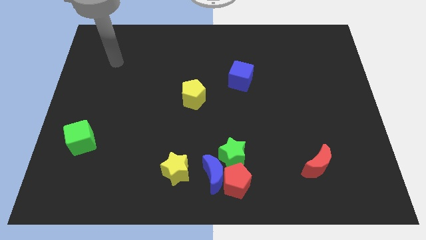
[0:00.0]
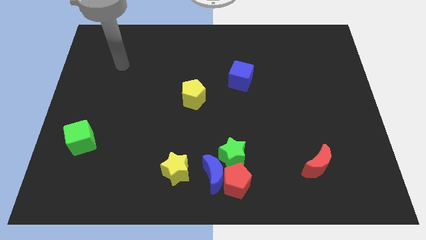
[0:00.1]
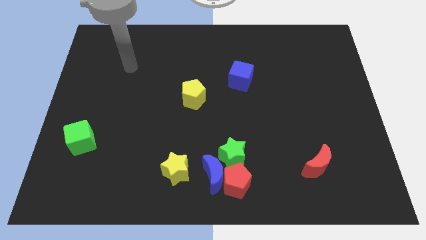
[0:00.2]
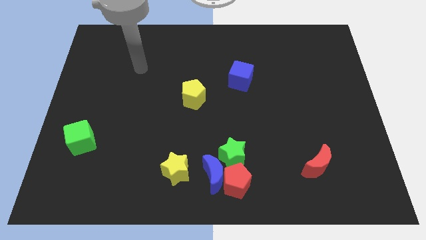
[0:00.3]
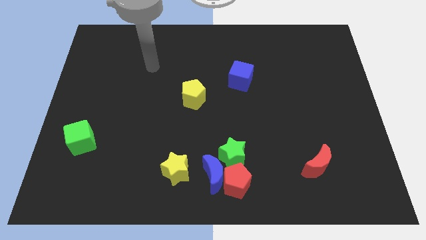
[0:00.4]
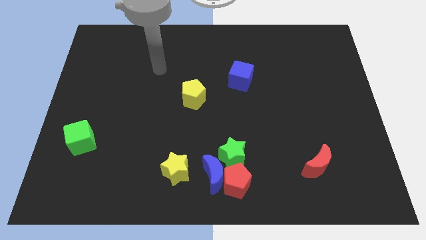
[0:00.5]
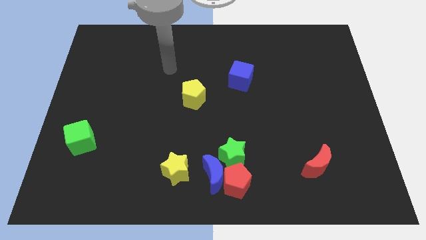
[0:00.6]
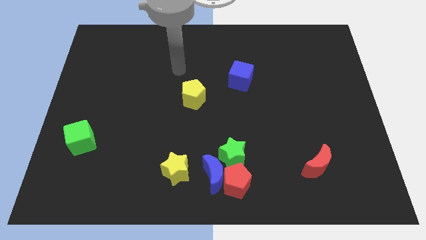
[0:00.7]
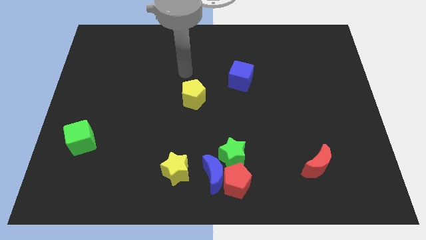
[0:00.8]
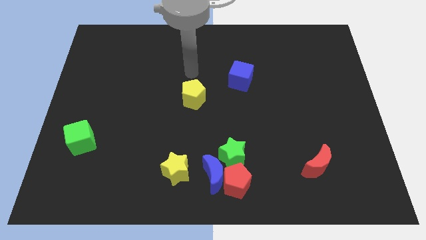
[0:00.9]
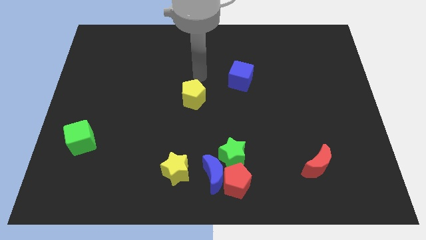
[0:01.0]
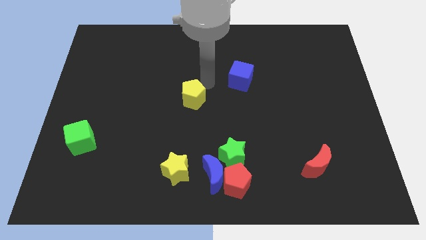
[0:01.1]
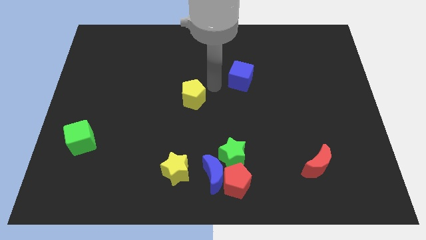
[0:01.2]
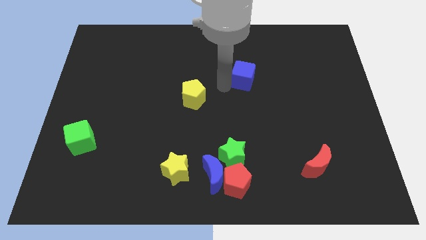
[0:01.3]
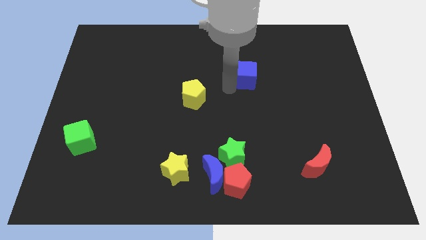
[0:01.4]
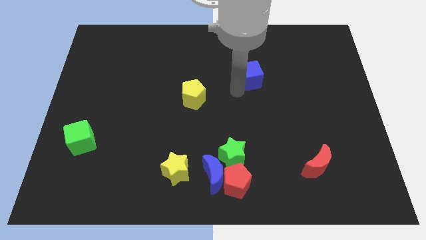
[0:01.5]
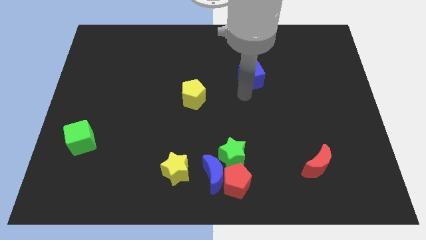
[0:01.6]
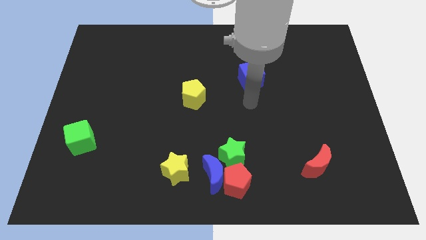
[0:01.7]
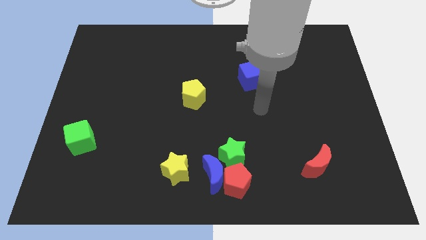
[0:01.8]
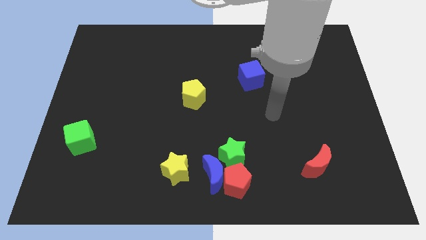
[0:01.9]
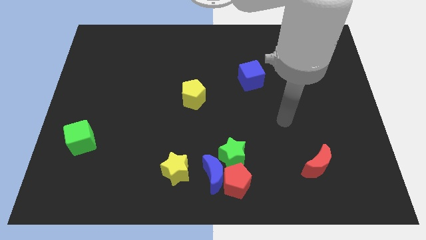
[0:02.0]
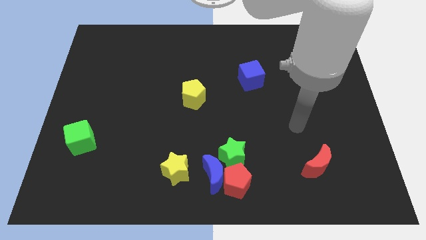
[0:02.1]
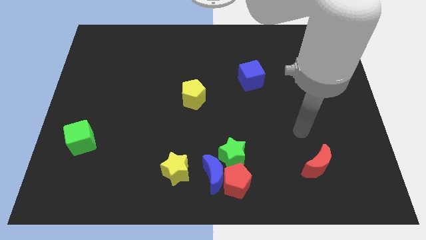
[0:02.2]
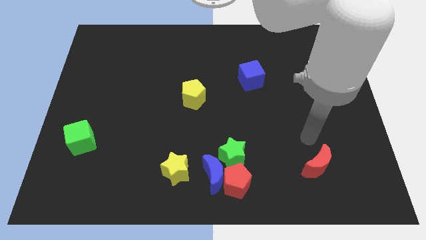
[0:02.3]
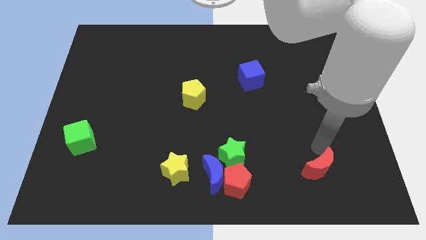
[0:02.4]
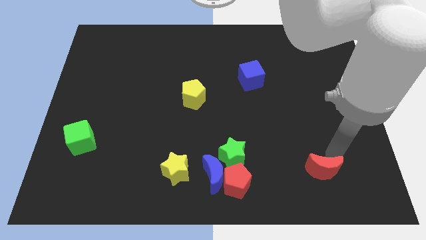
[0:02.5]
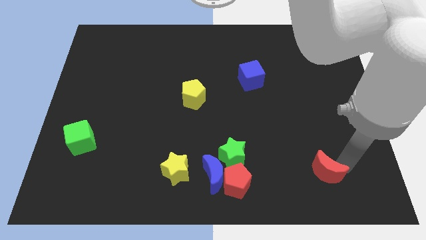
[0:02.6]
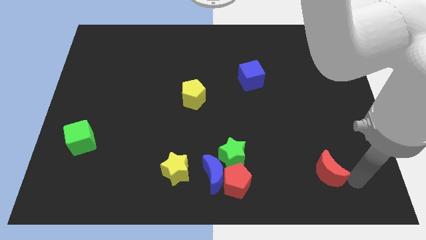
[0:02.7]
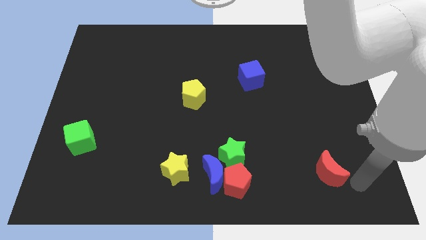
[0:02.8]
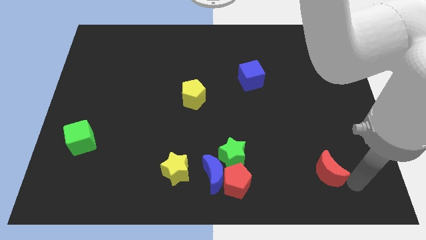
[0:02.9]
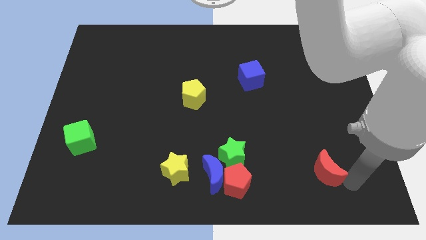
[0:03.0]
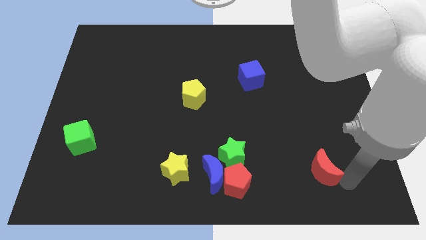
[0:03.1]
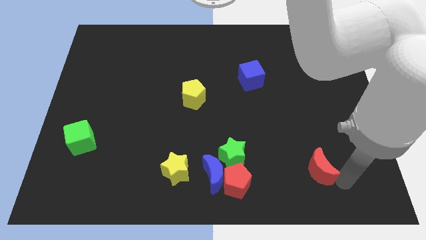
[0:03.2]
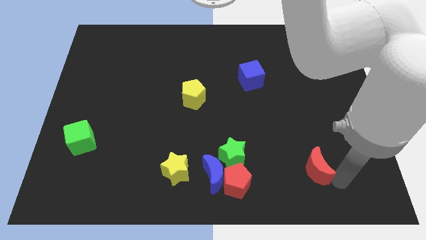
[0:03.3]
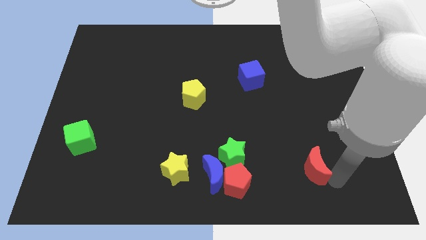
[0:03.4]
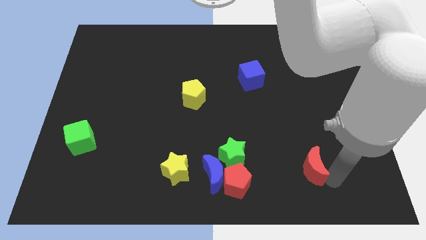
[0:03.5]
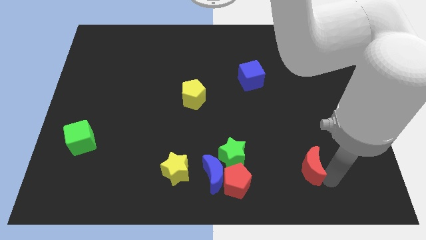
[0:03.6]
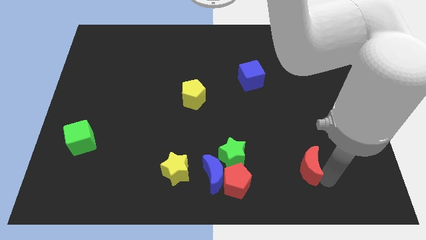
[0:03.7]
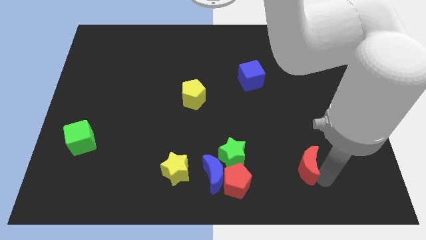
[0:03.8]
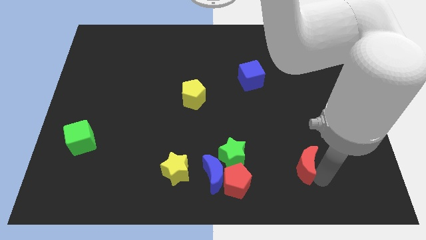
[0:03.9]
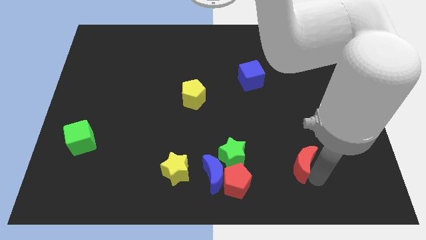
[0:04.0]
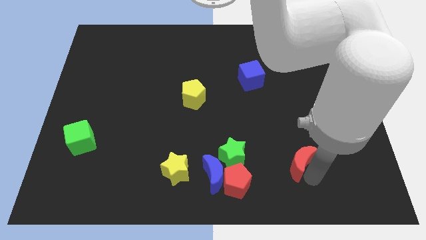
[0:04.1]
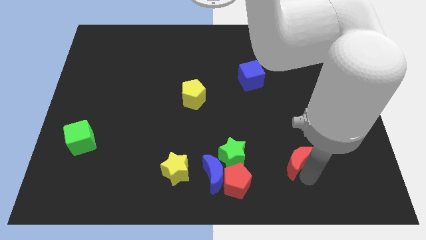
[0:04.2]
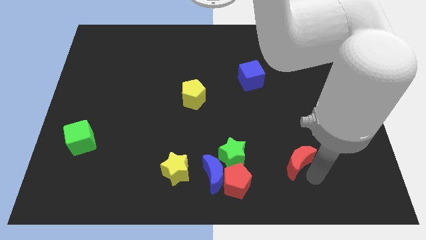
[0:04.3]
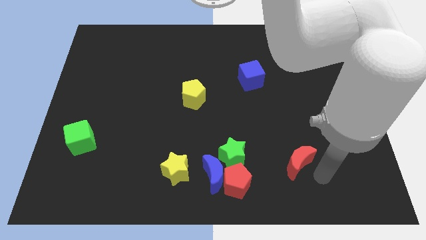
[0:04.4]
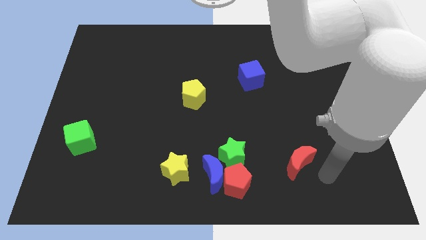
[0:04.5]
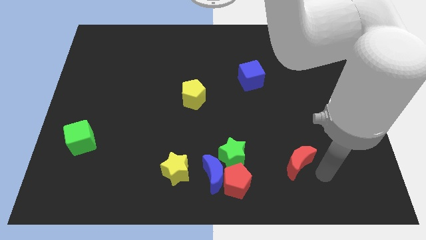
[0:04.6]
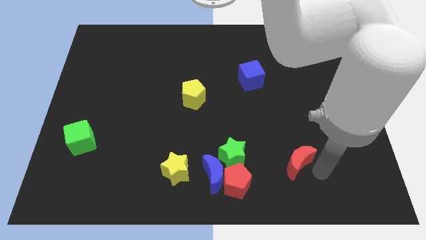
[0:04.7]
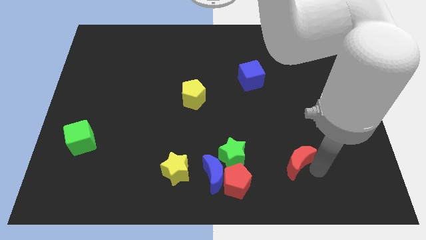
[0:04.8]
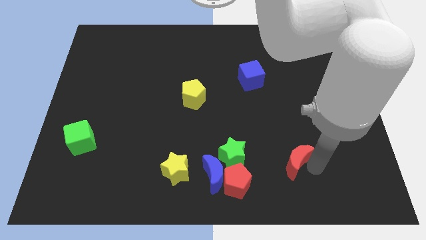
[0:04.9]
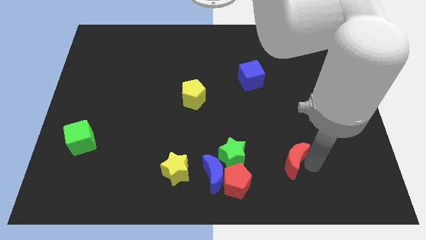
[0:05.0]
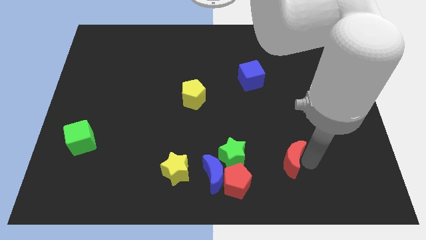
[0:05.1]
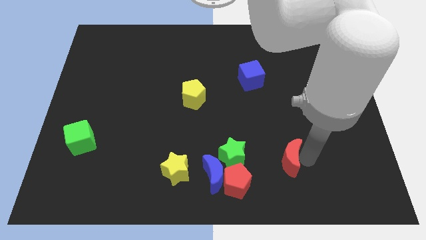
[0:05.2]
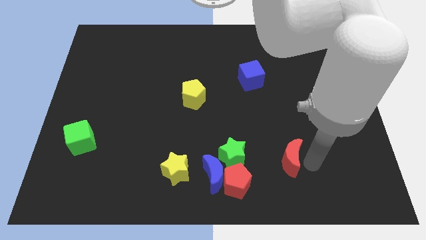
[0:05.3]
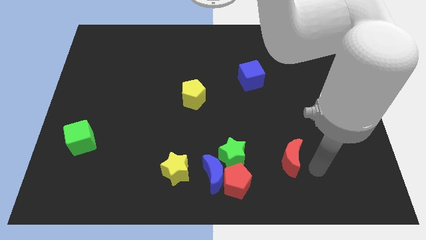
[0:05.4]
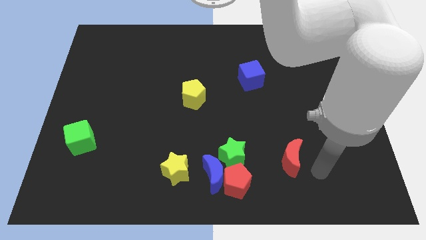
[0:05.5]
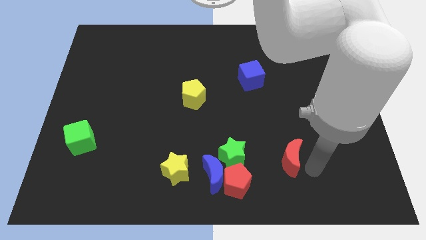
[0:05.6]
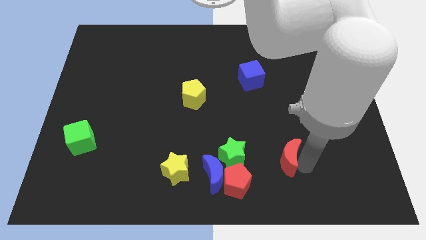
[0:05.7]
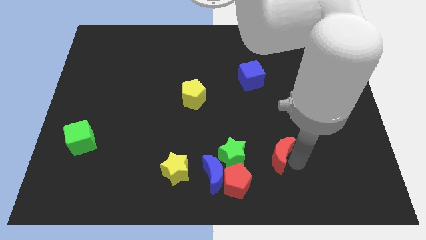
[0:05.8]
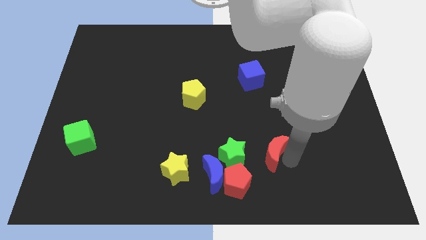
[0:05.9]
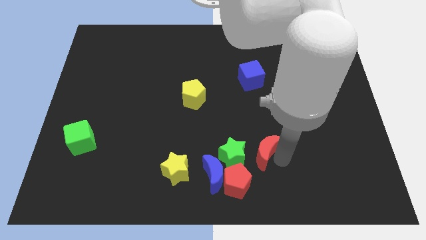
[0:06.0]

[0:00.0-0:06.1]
move the red moon to the top right of the green star

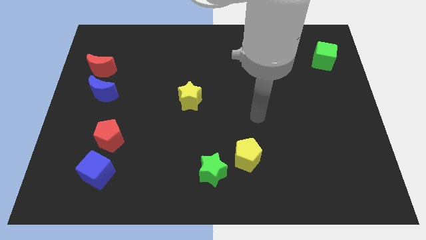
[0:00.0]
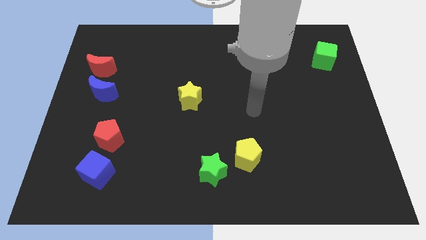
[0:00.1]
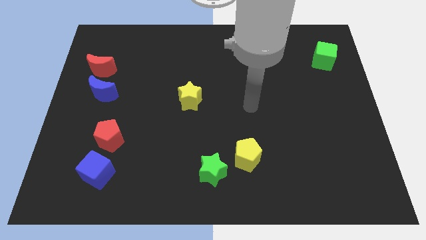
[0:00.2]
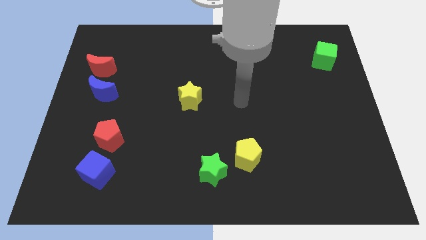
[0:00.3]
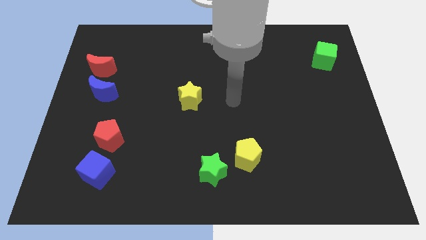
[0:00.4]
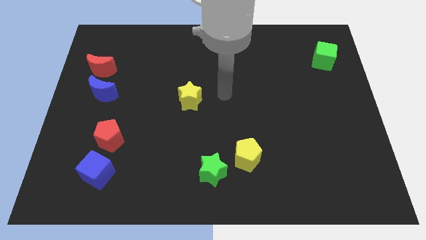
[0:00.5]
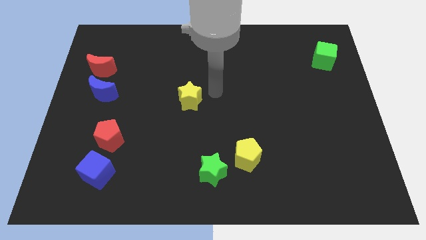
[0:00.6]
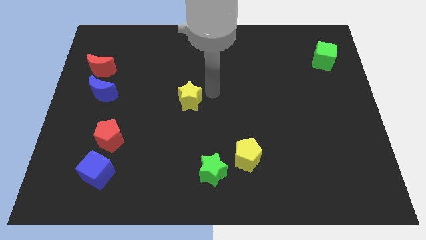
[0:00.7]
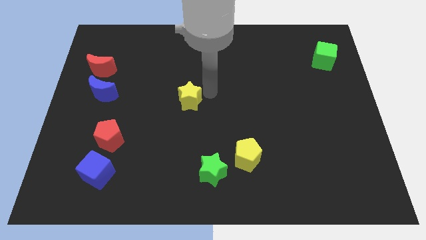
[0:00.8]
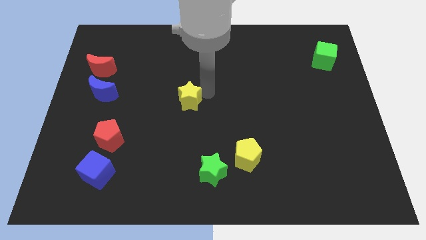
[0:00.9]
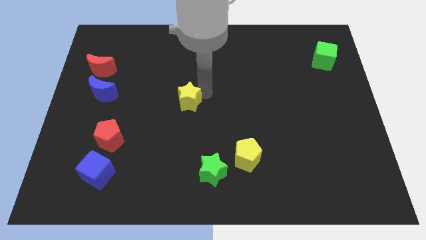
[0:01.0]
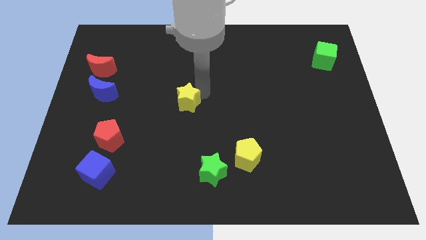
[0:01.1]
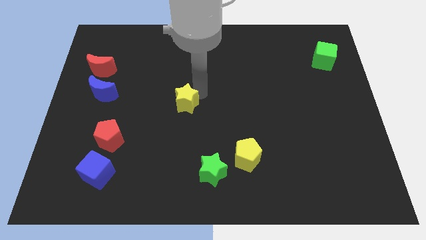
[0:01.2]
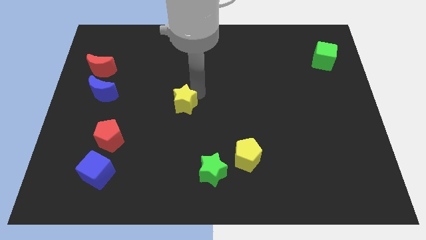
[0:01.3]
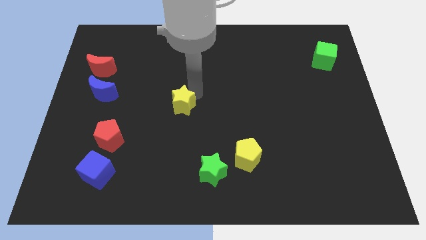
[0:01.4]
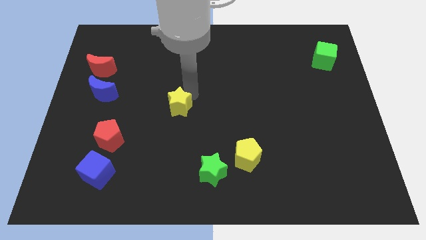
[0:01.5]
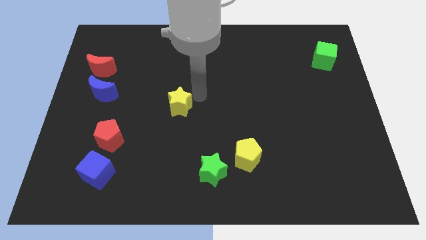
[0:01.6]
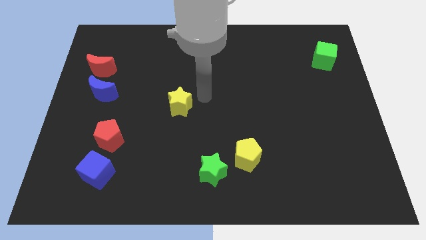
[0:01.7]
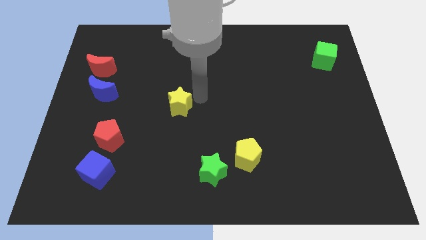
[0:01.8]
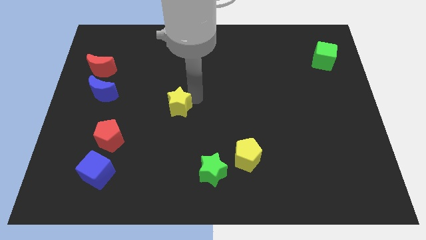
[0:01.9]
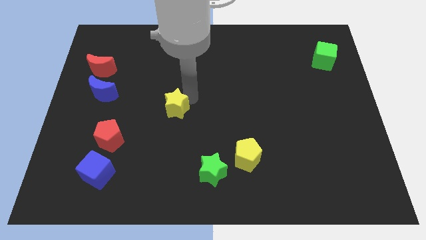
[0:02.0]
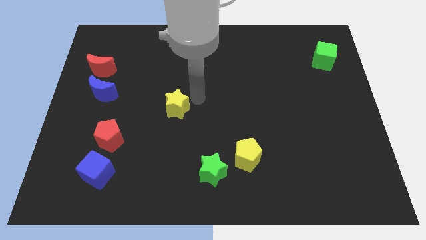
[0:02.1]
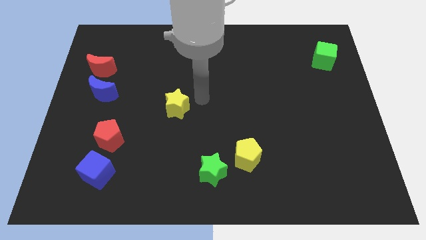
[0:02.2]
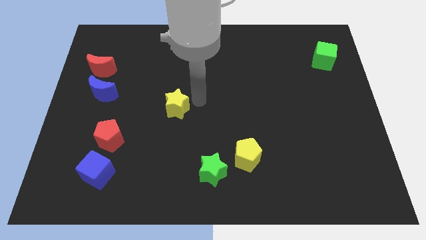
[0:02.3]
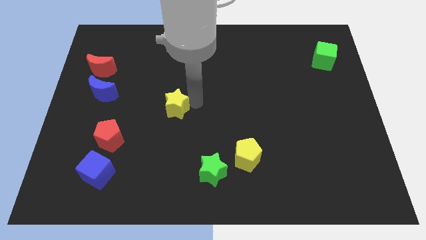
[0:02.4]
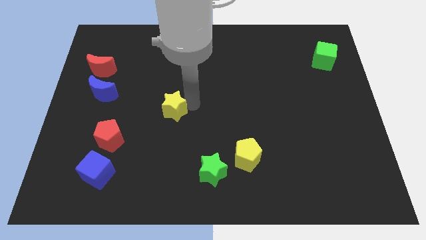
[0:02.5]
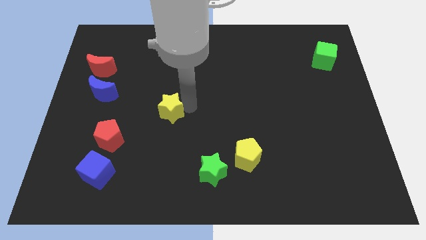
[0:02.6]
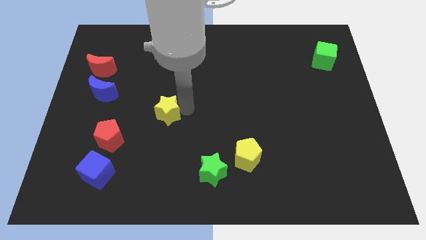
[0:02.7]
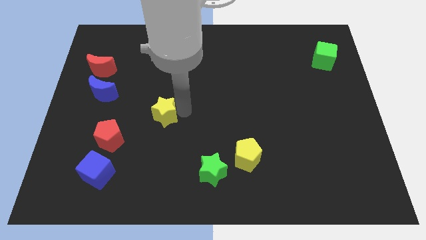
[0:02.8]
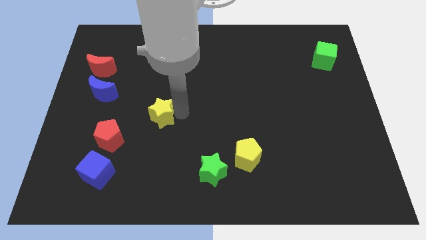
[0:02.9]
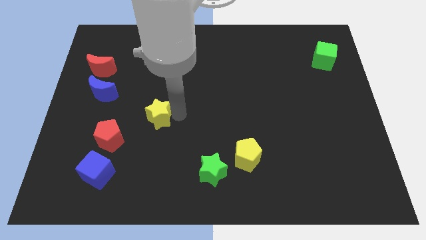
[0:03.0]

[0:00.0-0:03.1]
push the yellow star diagonally up and to the right of the red pentagon
